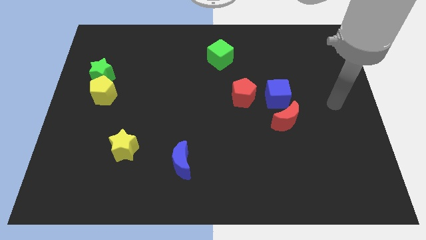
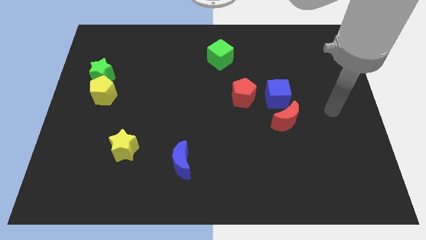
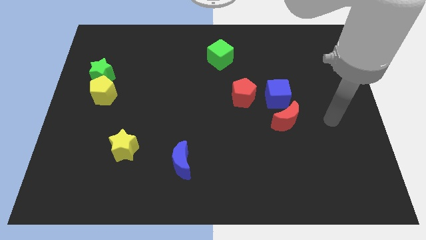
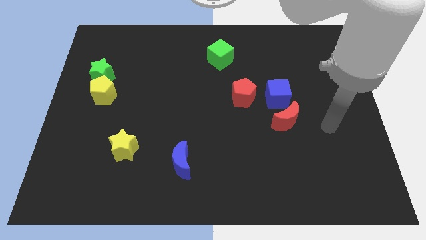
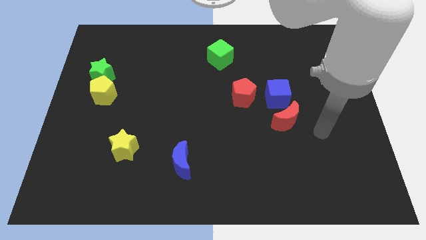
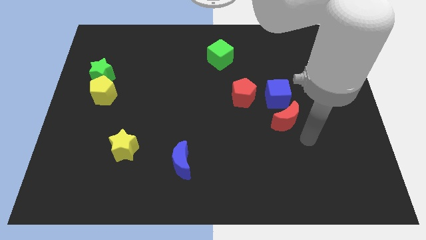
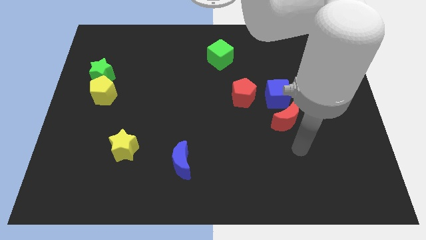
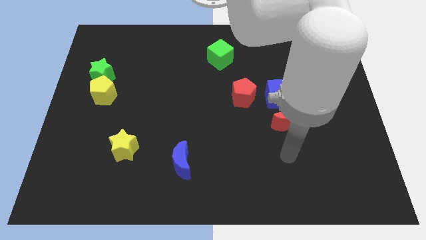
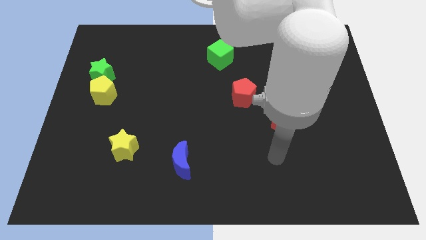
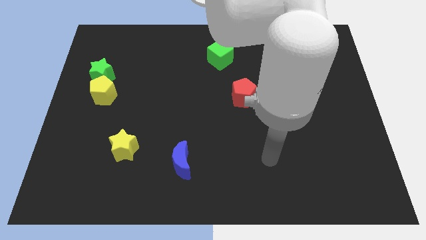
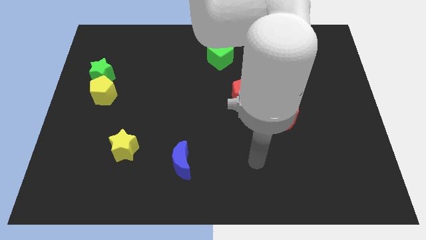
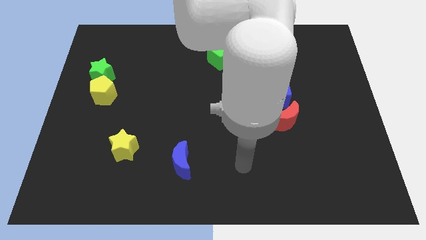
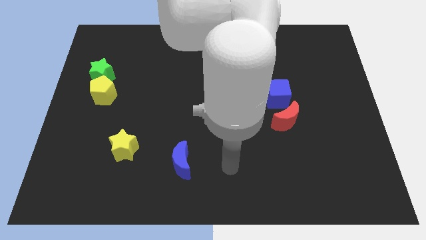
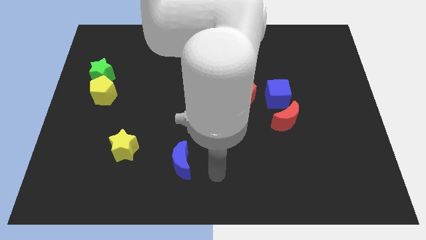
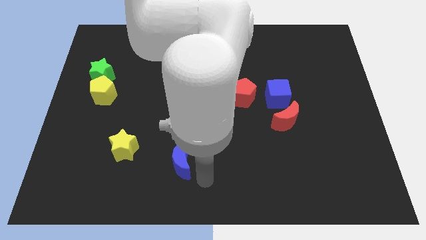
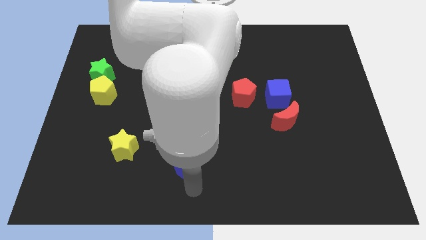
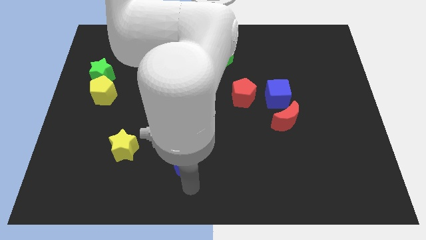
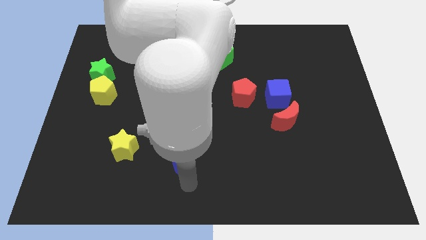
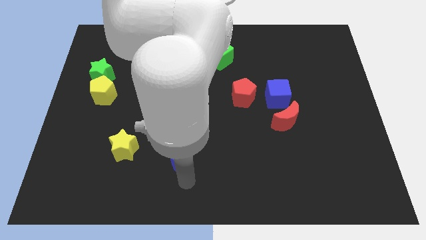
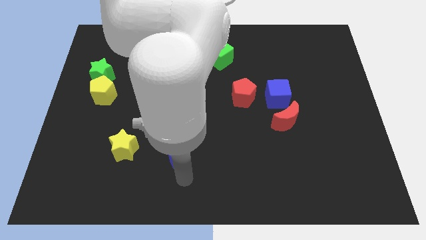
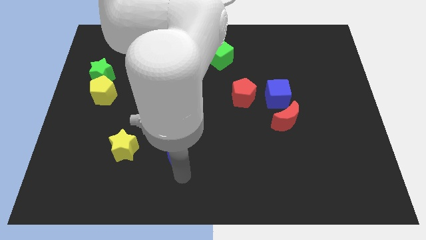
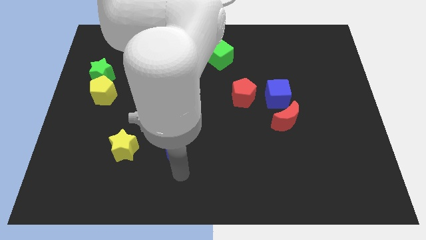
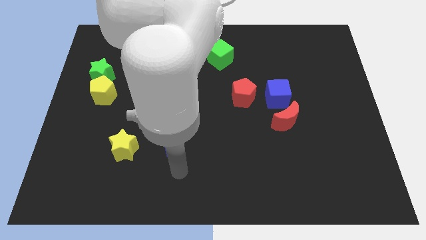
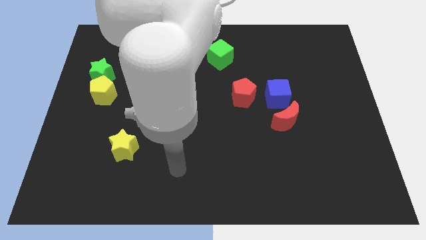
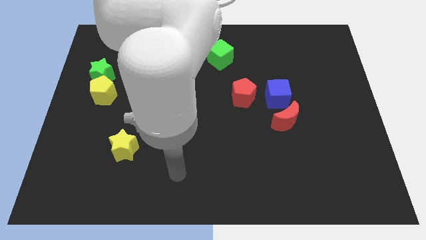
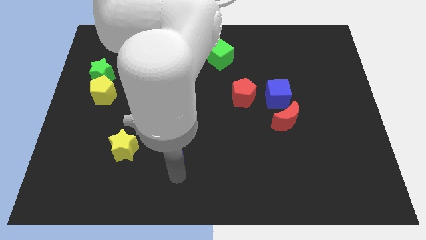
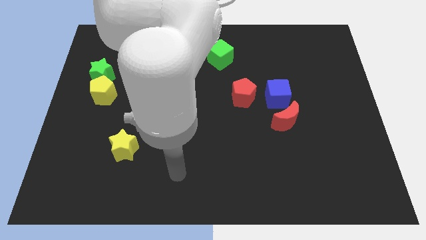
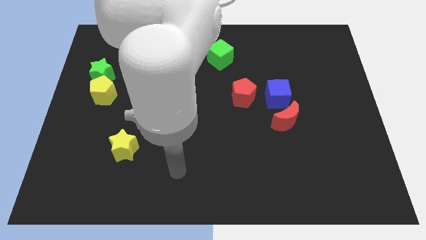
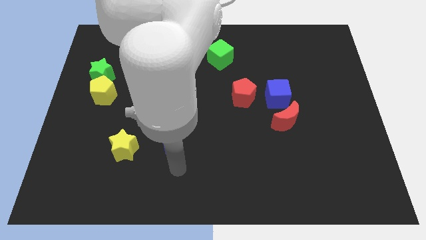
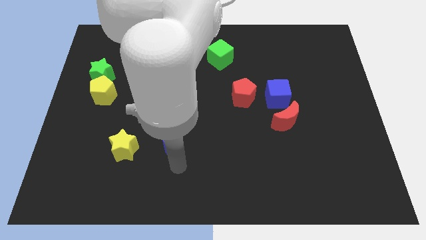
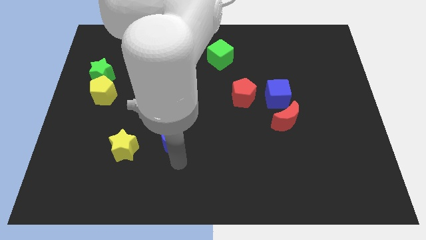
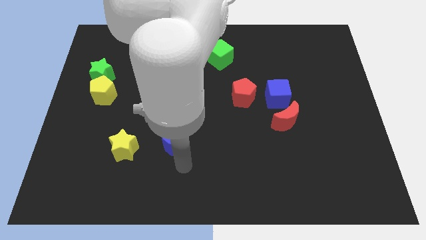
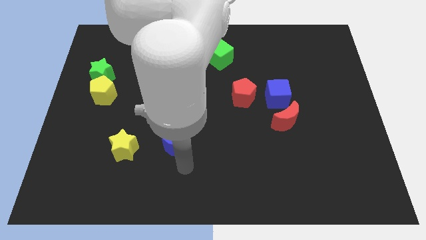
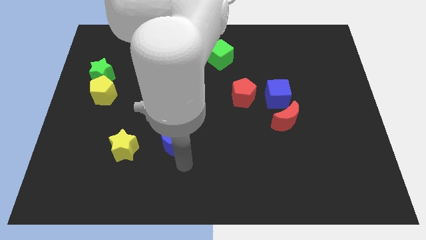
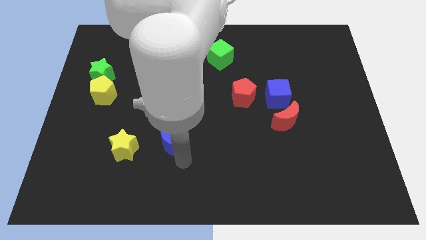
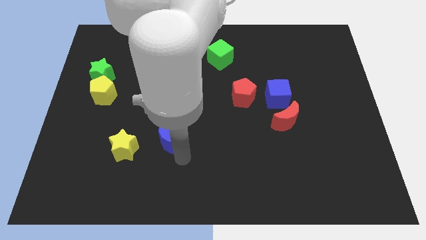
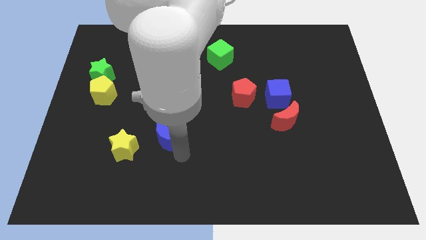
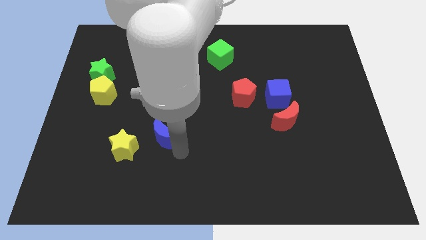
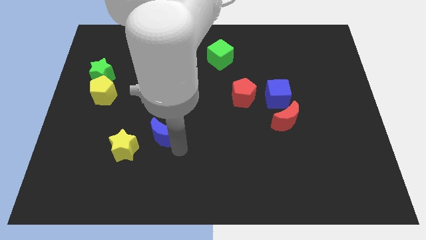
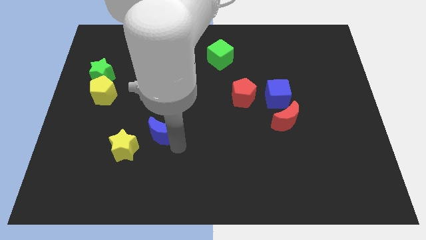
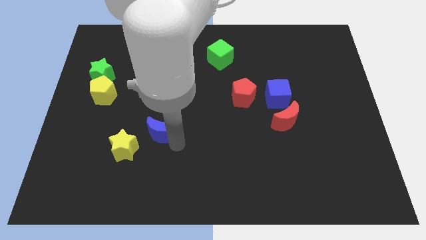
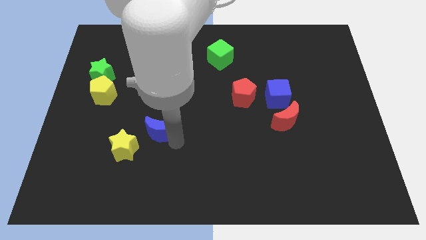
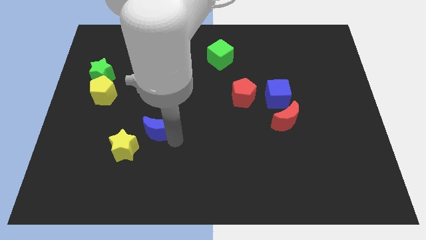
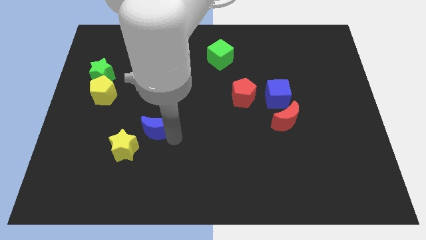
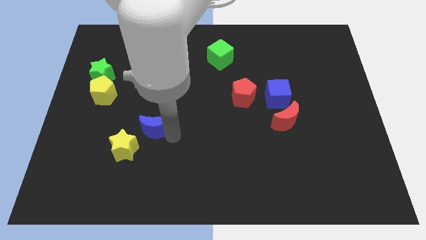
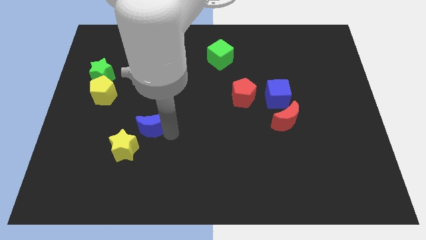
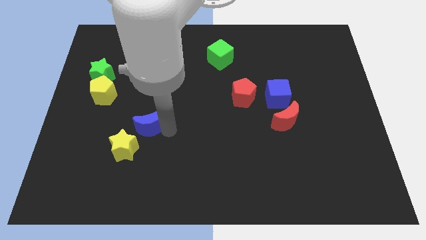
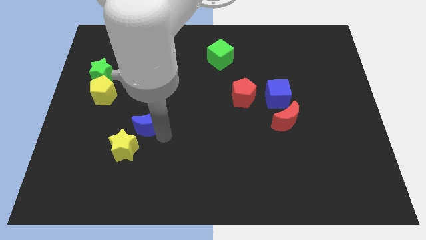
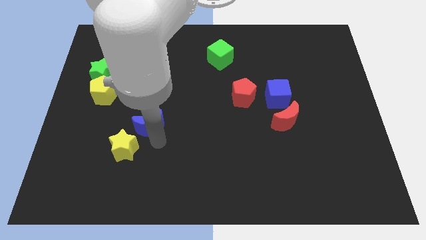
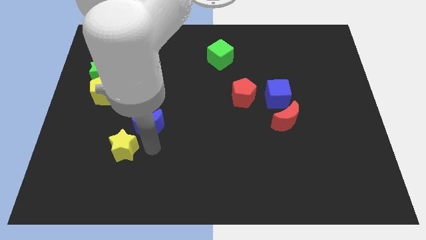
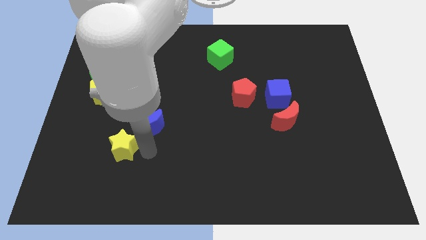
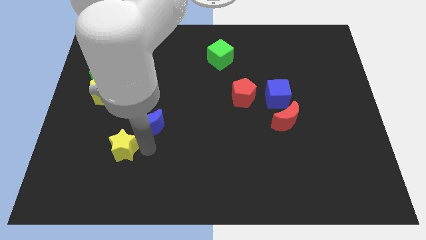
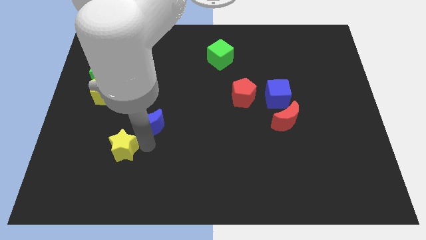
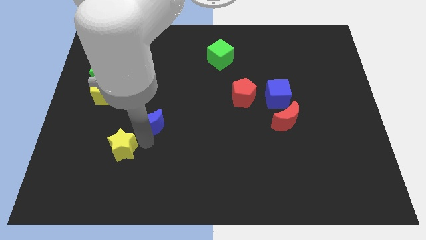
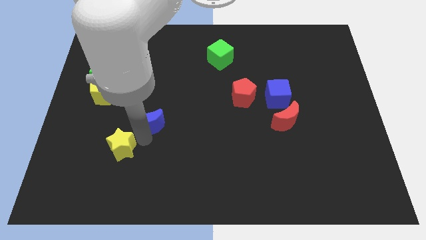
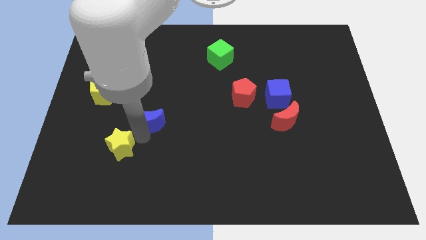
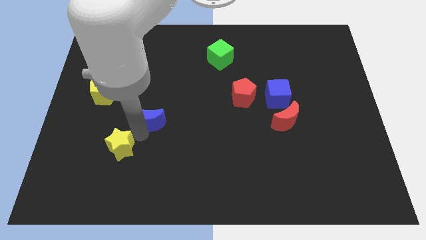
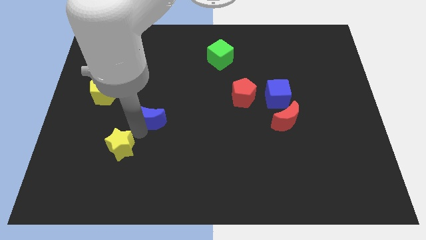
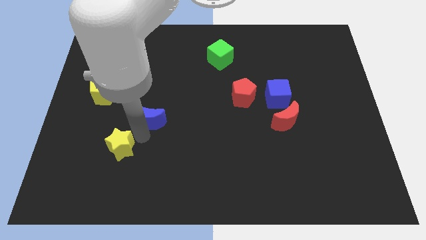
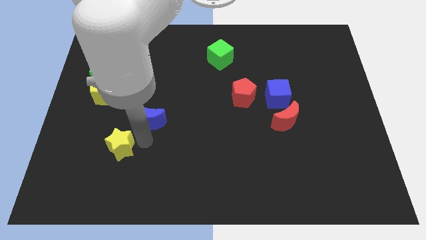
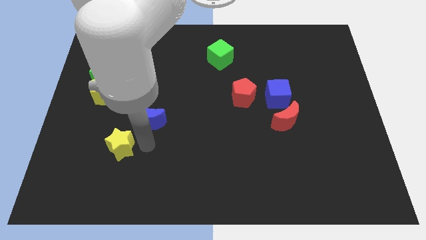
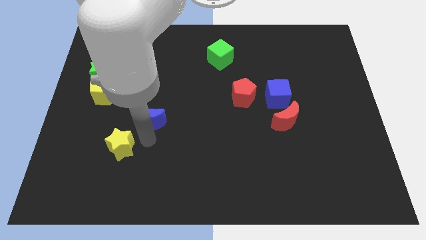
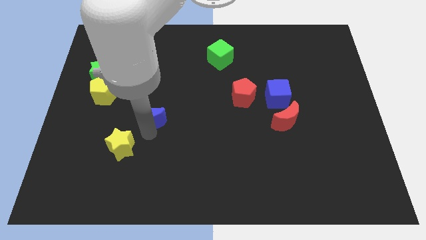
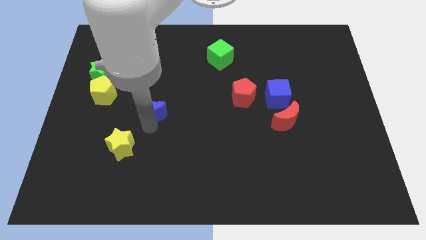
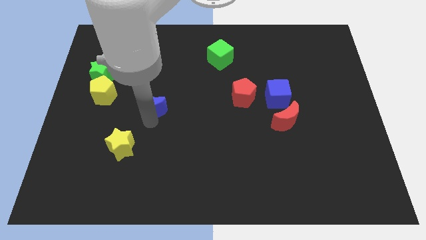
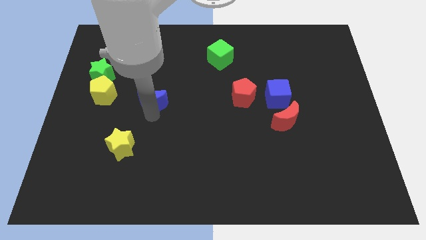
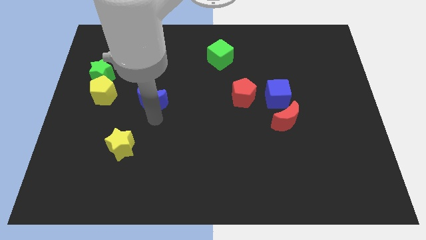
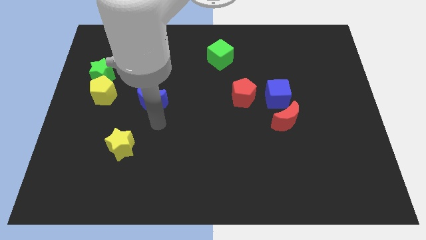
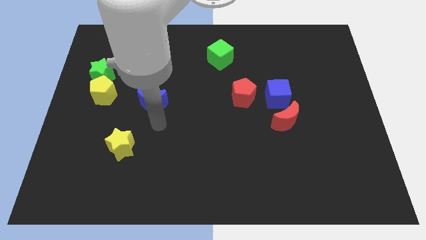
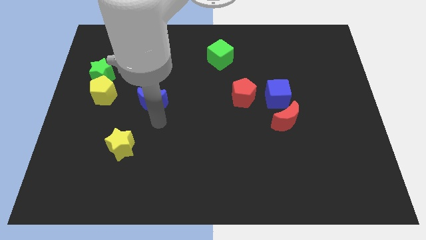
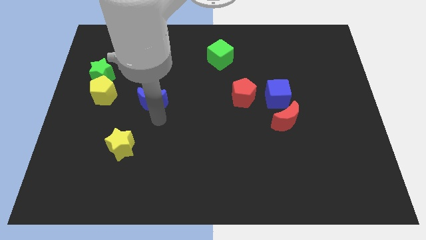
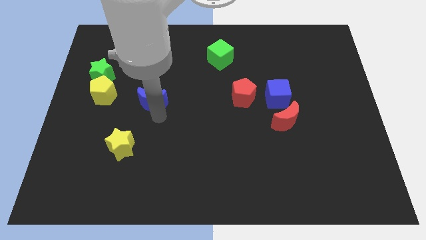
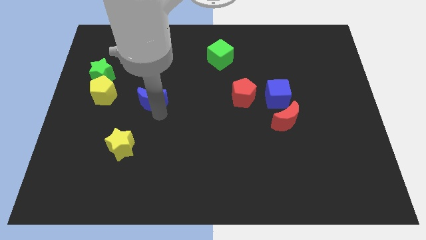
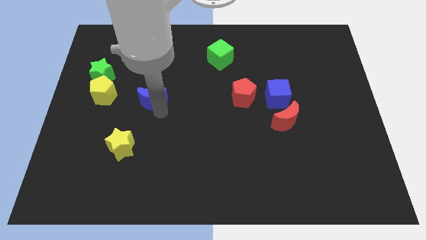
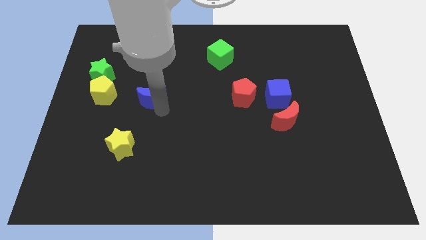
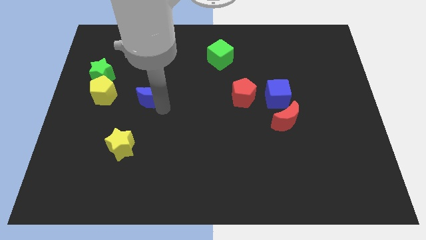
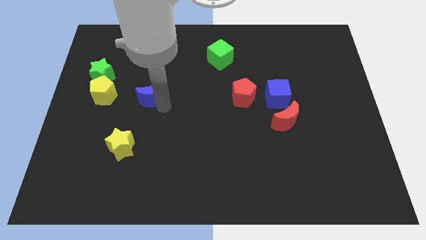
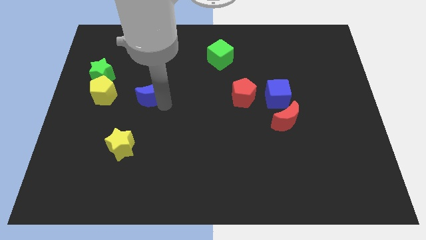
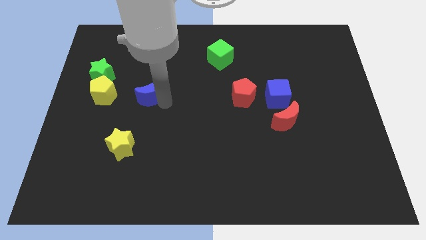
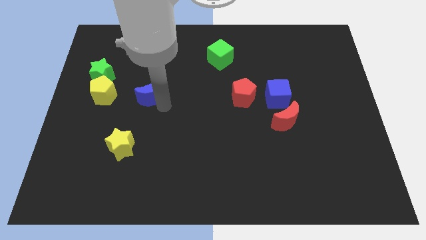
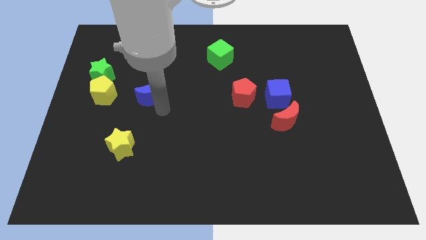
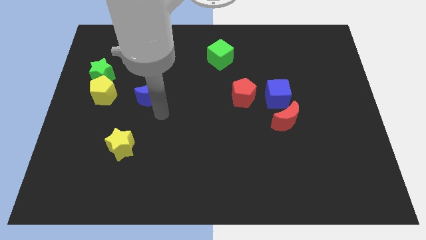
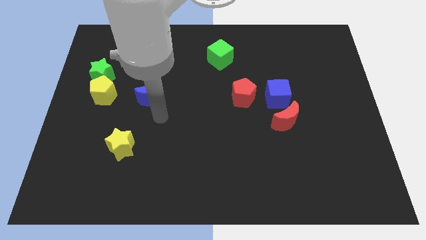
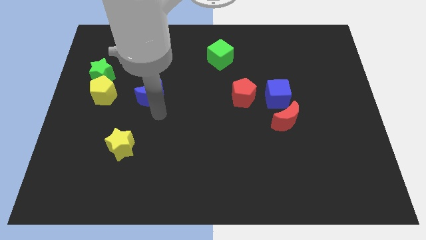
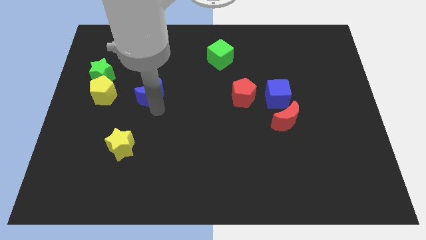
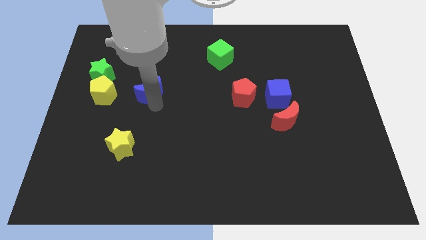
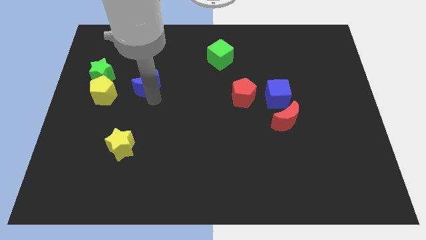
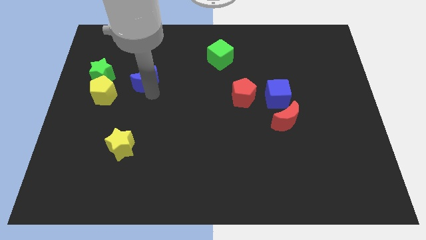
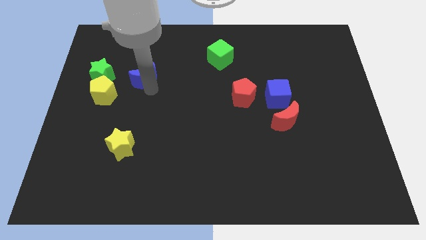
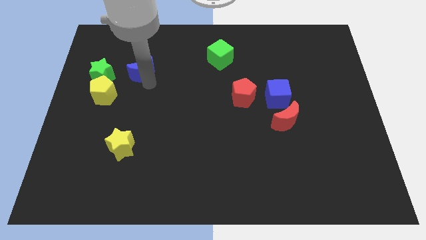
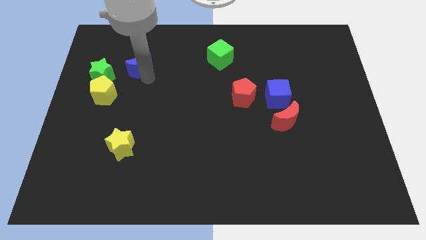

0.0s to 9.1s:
slide the blue moon diagonally up and to the right of the green star
